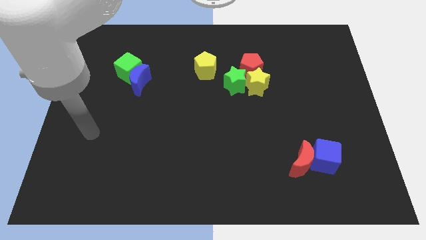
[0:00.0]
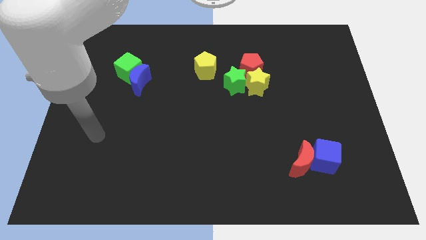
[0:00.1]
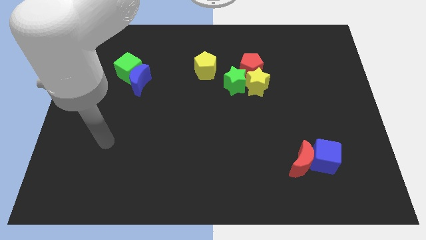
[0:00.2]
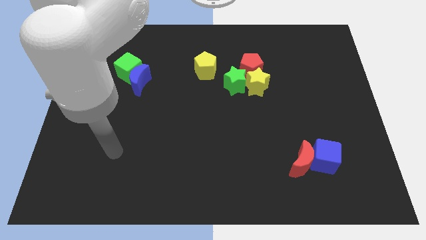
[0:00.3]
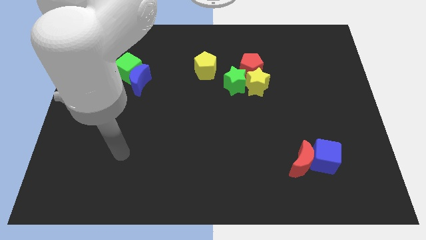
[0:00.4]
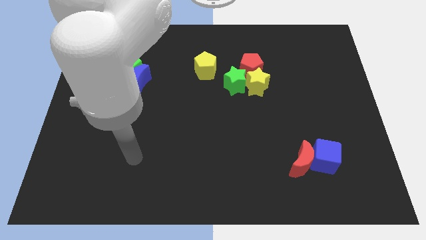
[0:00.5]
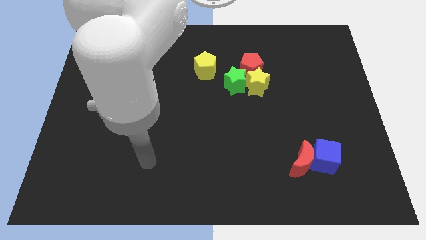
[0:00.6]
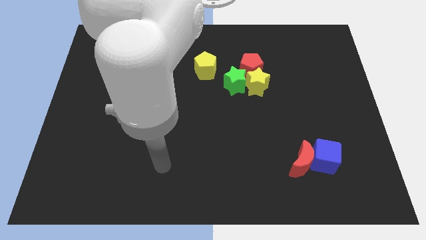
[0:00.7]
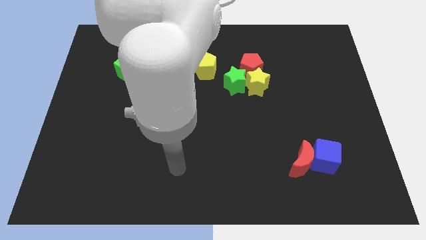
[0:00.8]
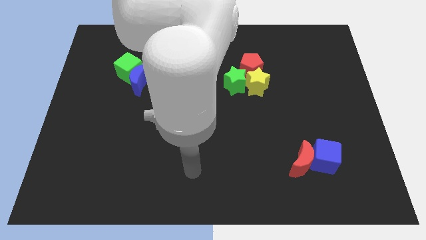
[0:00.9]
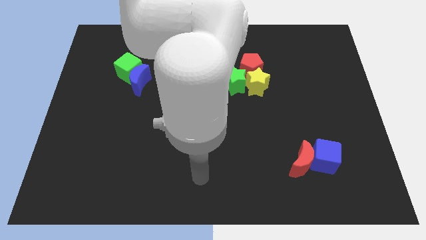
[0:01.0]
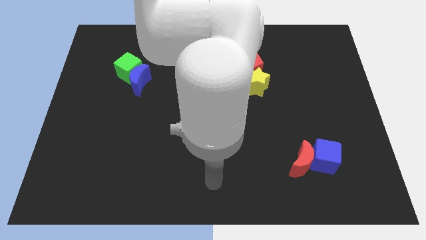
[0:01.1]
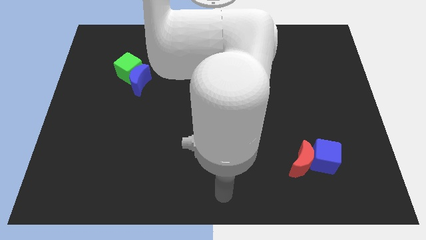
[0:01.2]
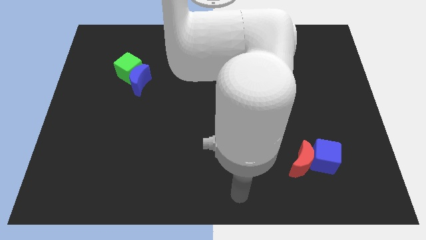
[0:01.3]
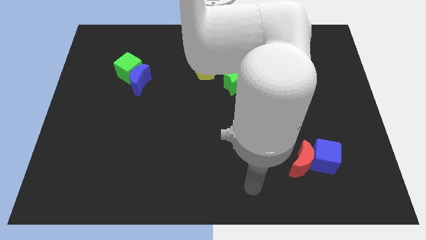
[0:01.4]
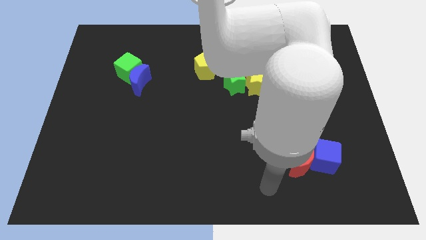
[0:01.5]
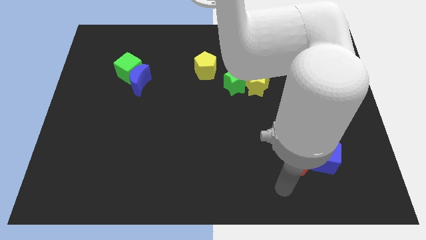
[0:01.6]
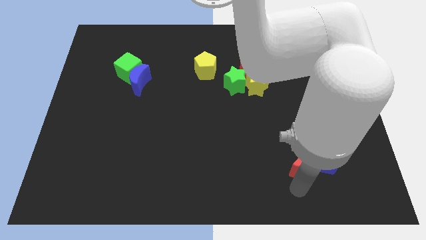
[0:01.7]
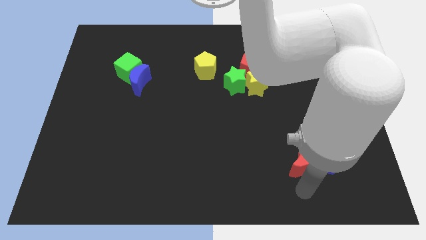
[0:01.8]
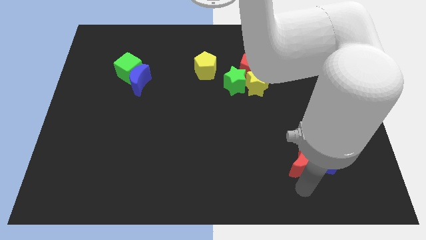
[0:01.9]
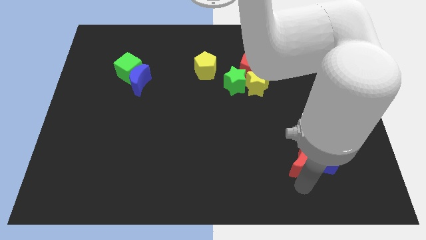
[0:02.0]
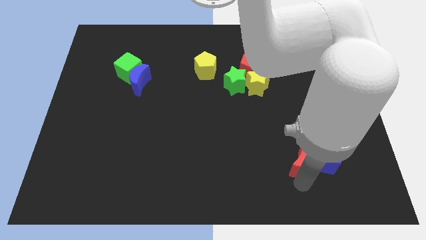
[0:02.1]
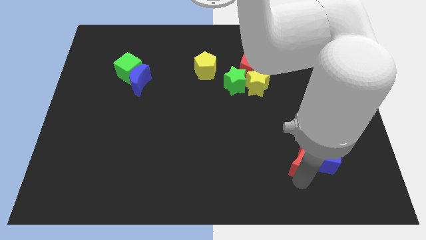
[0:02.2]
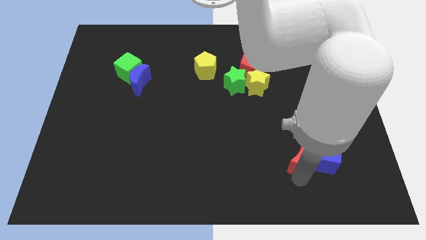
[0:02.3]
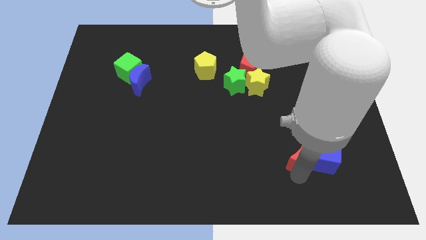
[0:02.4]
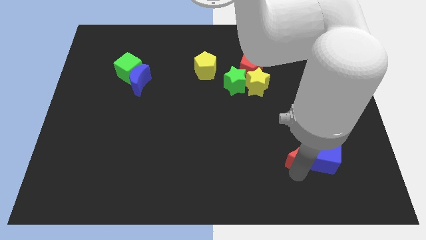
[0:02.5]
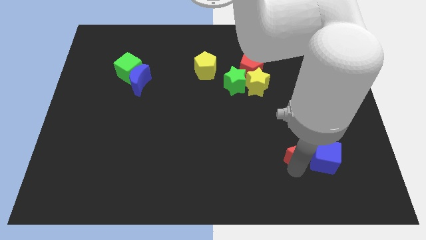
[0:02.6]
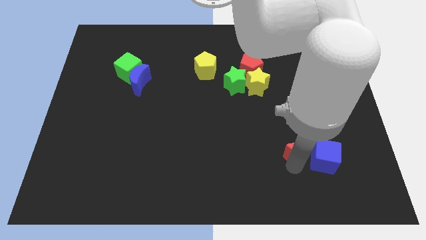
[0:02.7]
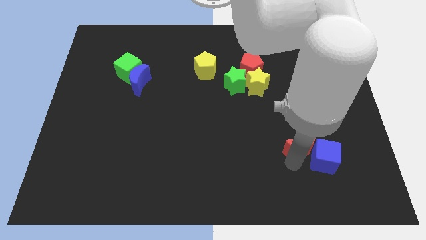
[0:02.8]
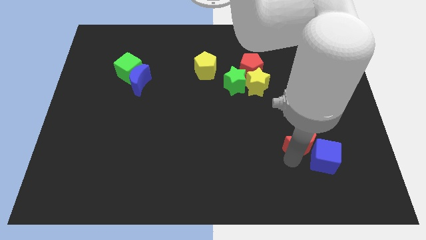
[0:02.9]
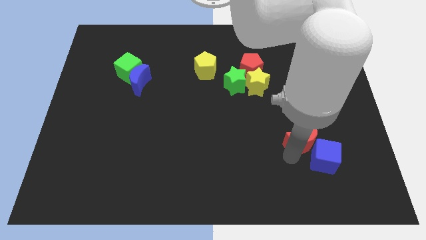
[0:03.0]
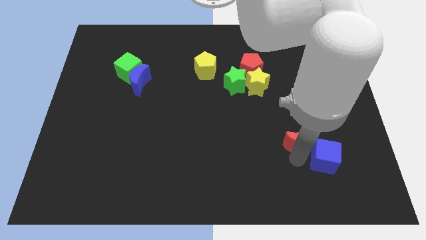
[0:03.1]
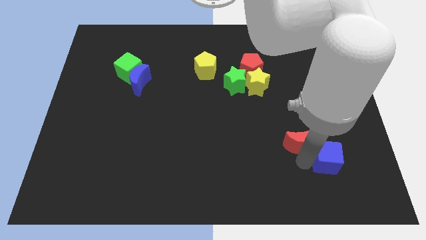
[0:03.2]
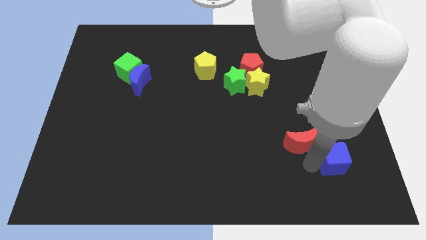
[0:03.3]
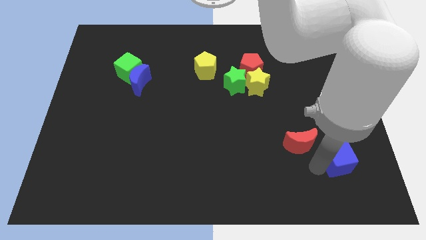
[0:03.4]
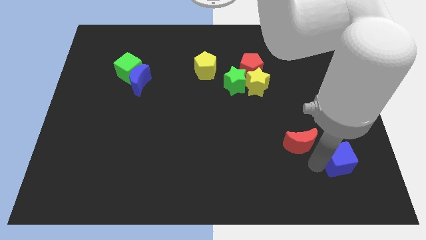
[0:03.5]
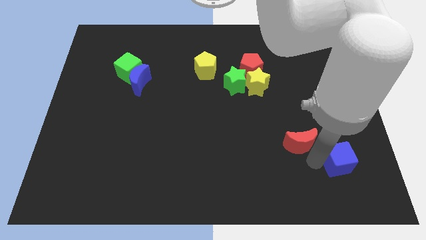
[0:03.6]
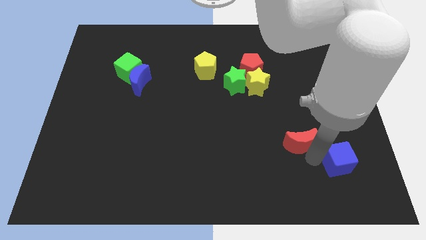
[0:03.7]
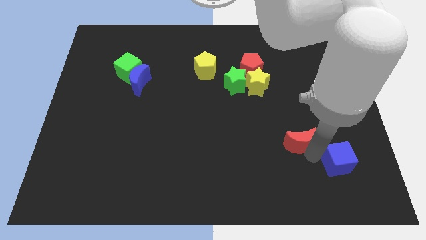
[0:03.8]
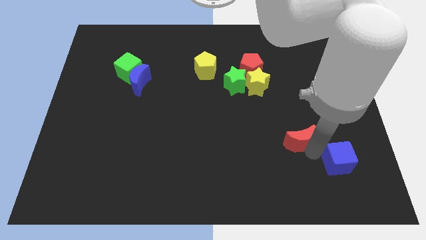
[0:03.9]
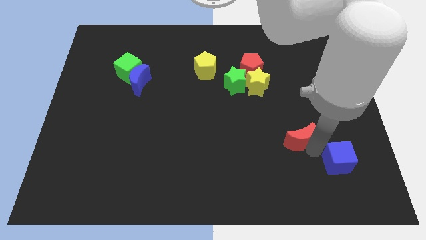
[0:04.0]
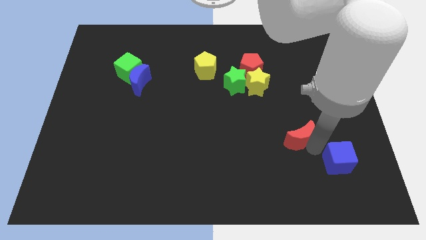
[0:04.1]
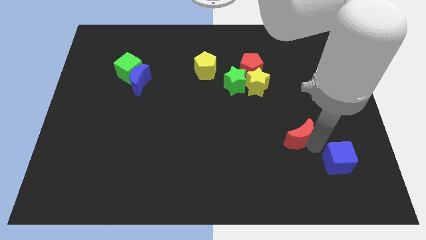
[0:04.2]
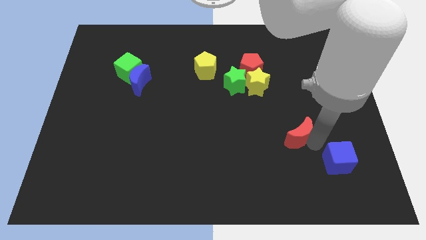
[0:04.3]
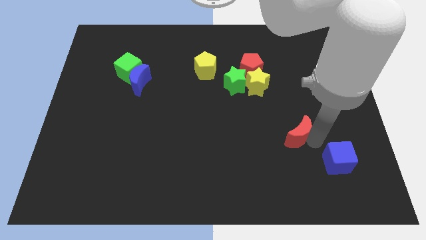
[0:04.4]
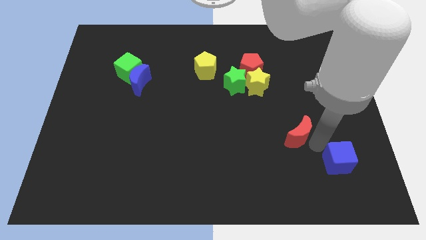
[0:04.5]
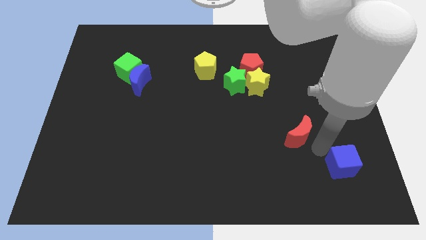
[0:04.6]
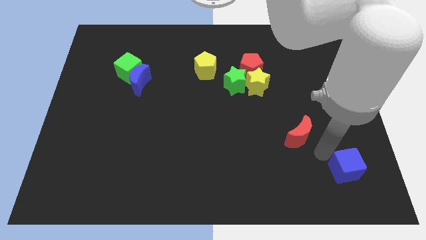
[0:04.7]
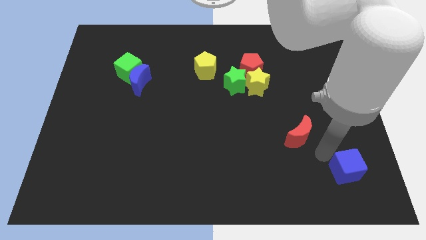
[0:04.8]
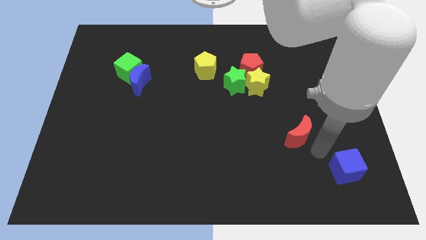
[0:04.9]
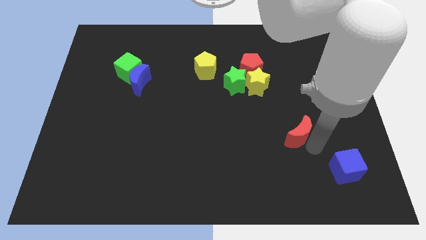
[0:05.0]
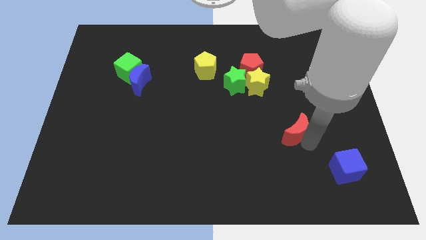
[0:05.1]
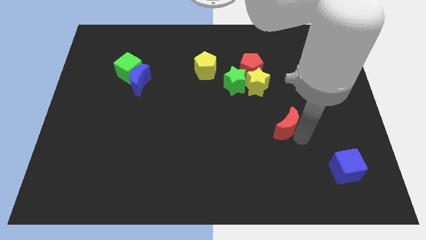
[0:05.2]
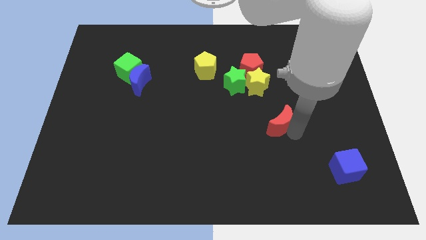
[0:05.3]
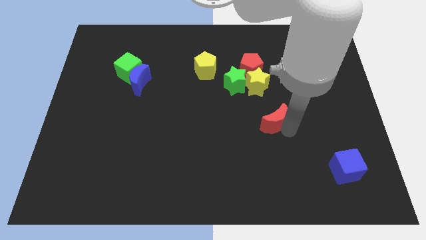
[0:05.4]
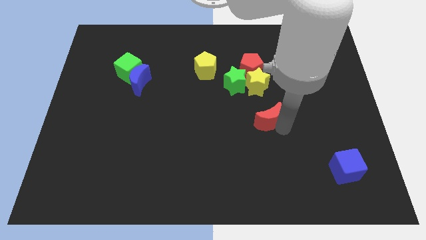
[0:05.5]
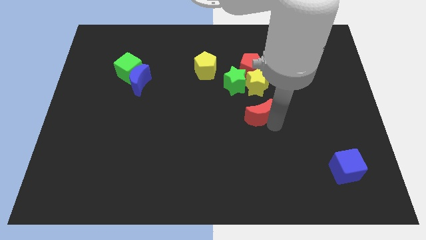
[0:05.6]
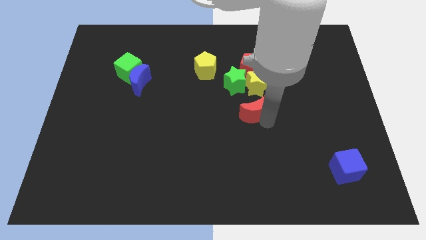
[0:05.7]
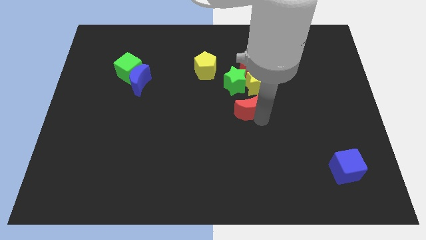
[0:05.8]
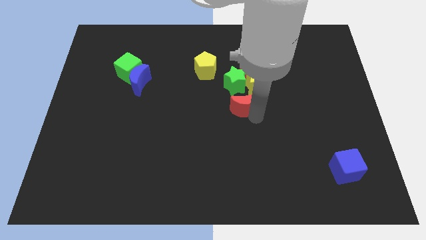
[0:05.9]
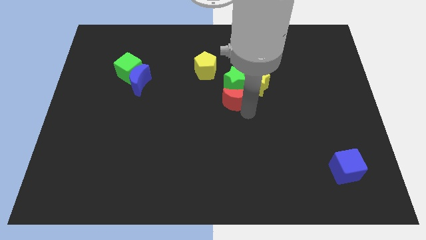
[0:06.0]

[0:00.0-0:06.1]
slide the red moon to the green star

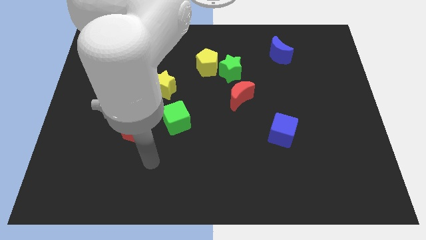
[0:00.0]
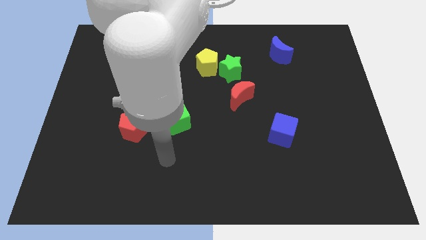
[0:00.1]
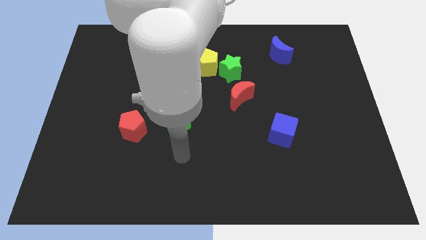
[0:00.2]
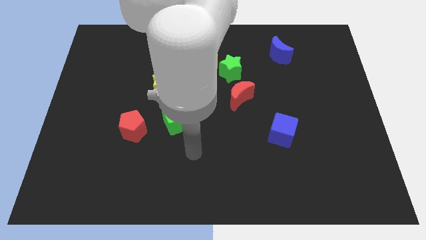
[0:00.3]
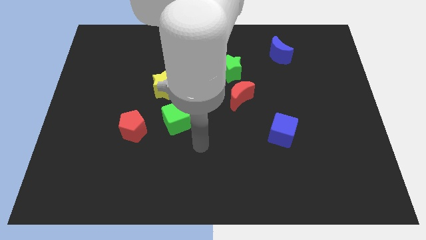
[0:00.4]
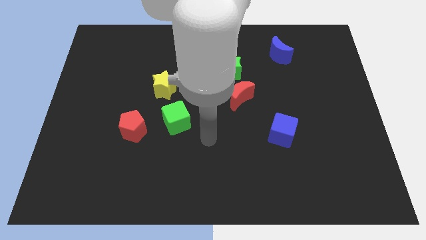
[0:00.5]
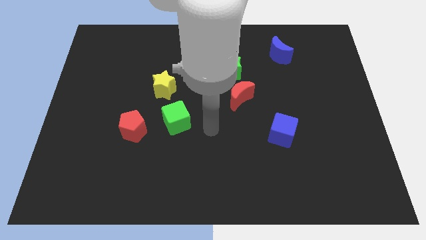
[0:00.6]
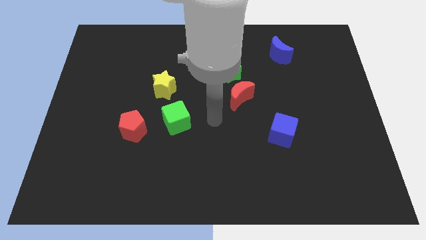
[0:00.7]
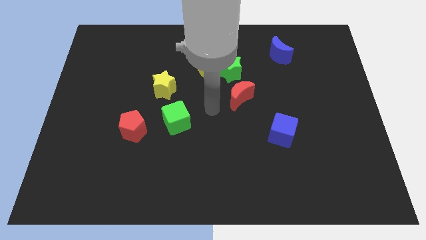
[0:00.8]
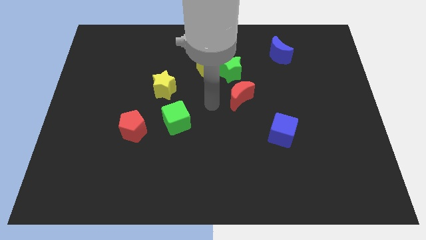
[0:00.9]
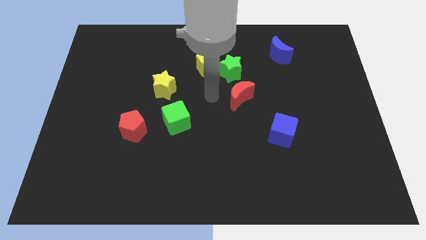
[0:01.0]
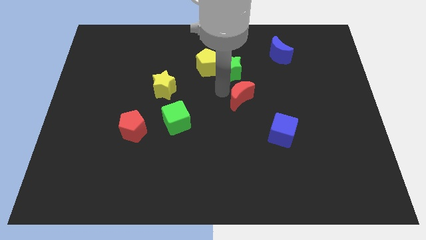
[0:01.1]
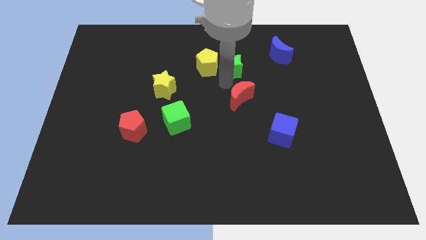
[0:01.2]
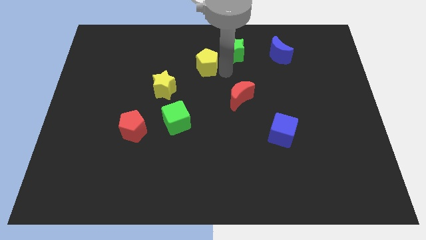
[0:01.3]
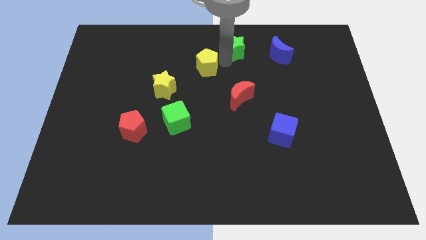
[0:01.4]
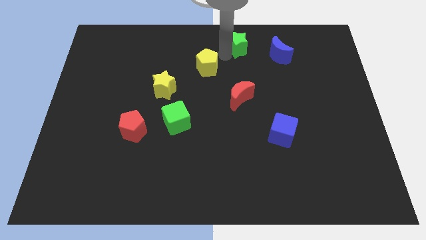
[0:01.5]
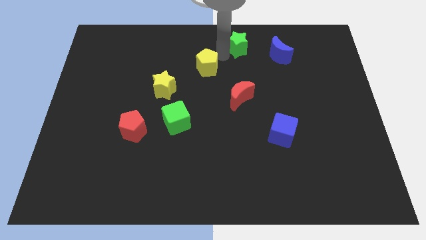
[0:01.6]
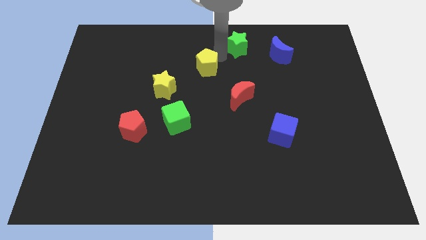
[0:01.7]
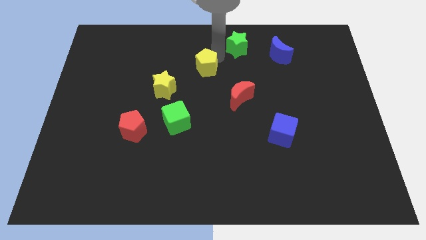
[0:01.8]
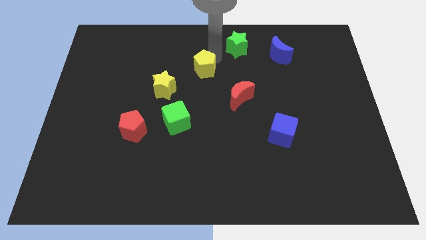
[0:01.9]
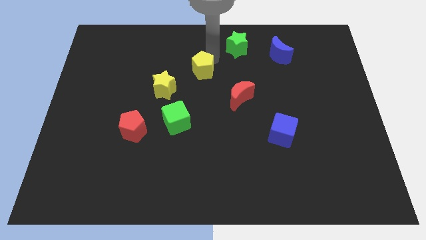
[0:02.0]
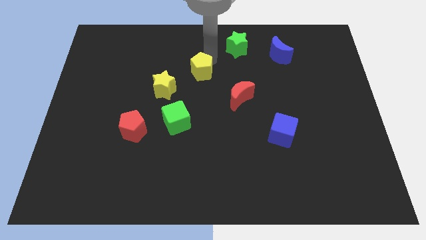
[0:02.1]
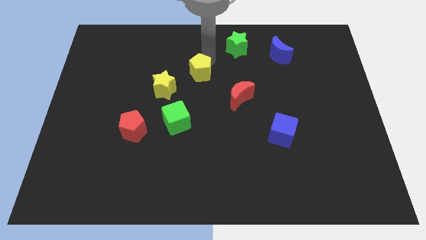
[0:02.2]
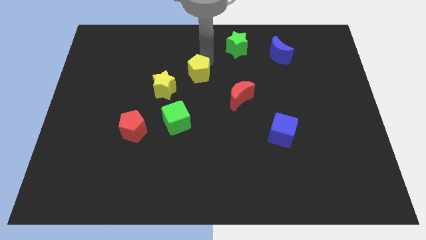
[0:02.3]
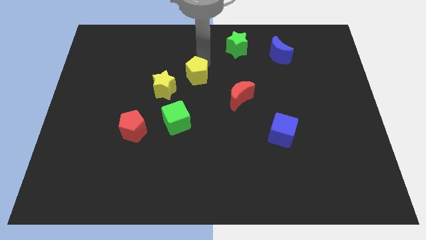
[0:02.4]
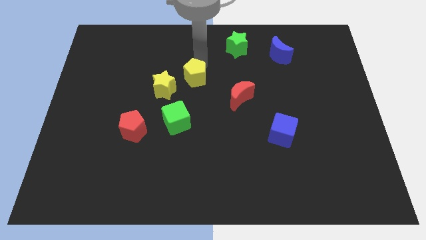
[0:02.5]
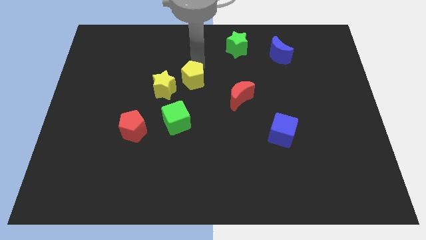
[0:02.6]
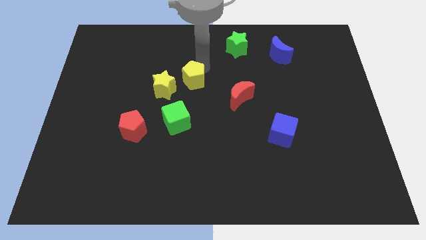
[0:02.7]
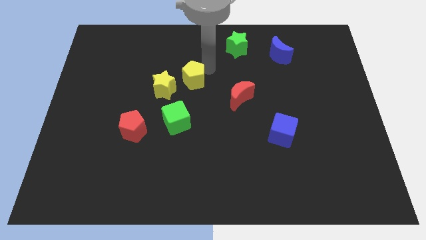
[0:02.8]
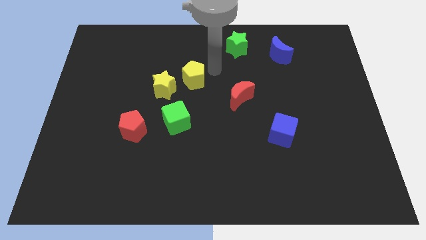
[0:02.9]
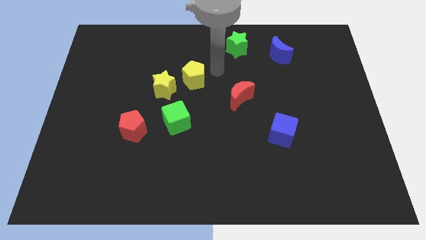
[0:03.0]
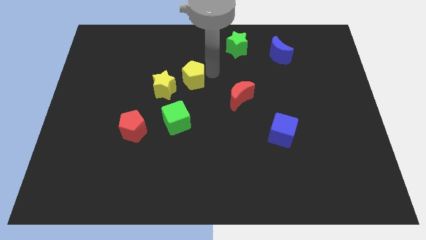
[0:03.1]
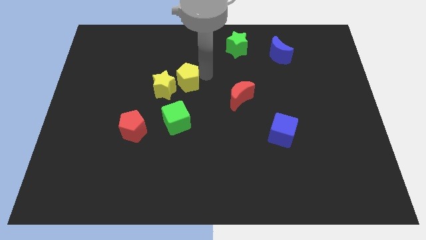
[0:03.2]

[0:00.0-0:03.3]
put the yellow pentagon towards the yellow star
